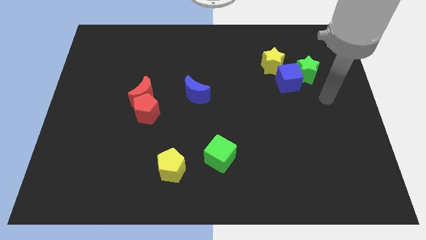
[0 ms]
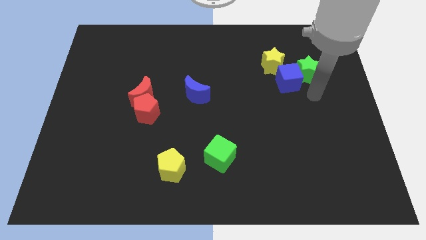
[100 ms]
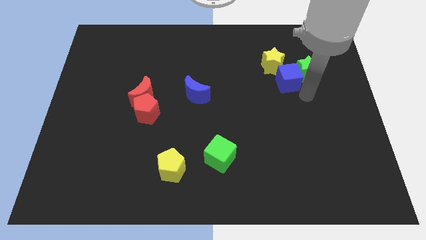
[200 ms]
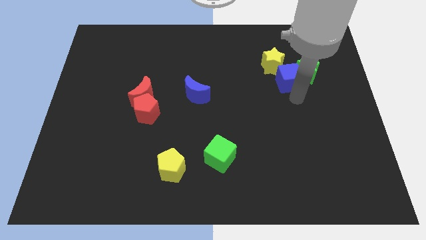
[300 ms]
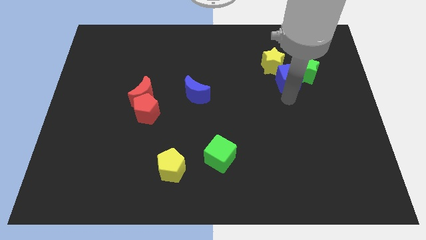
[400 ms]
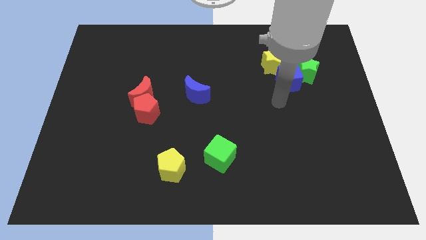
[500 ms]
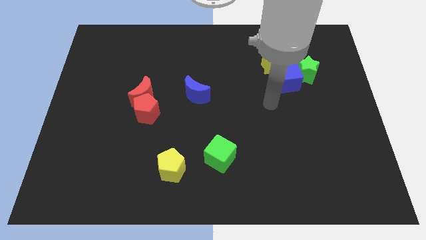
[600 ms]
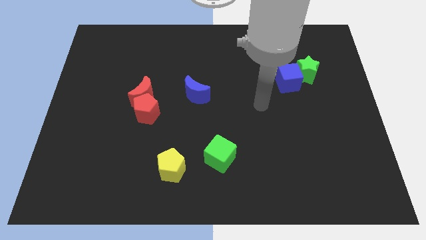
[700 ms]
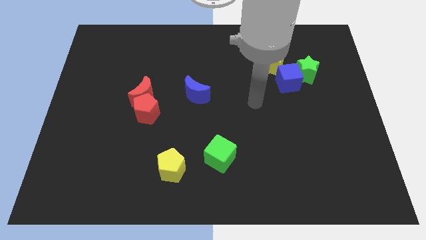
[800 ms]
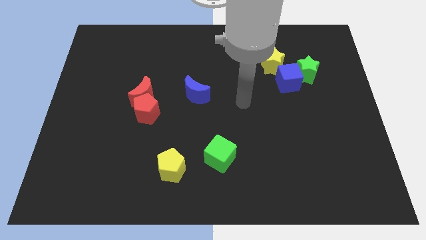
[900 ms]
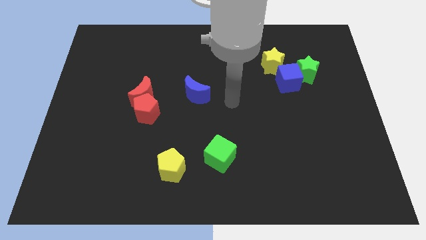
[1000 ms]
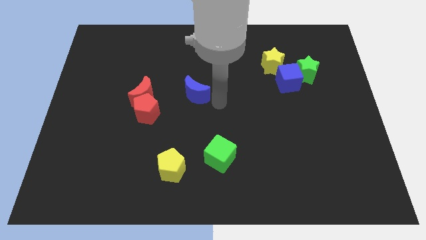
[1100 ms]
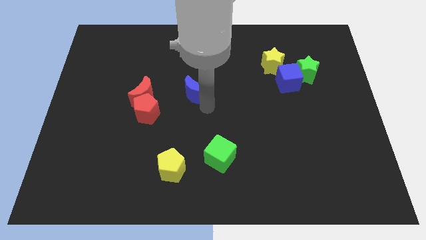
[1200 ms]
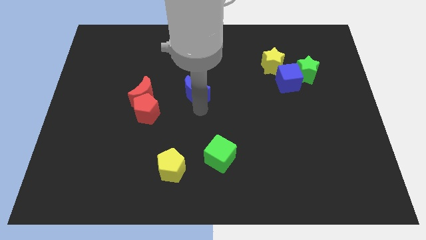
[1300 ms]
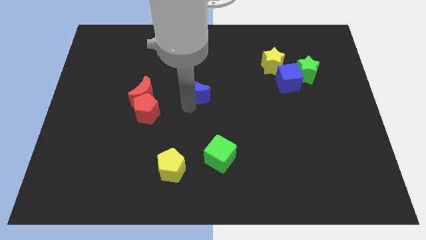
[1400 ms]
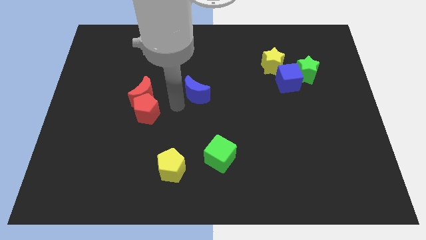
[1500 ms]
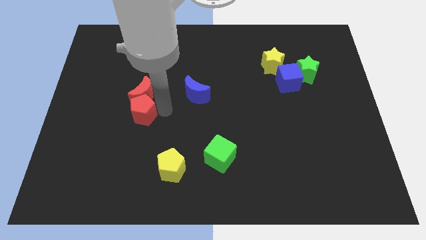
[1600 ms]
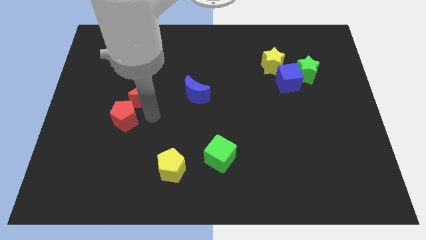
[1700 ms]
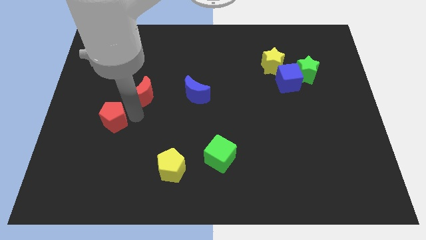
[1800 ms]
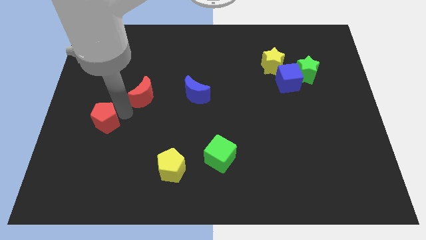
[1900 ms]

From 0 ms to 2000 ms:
move the red moon away from the red pentagon

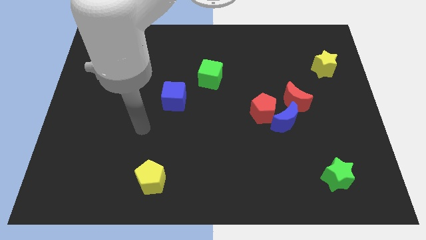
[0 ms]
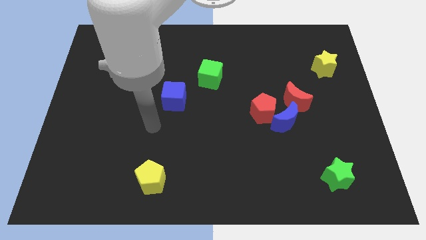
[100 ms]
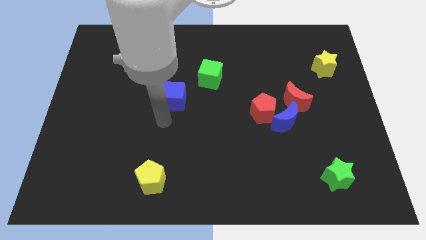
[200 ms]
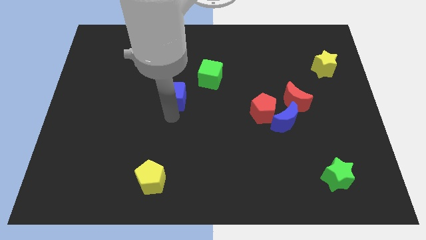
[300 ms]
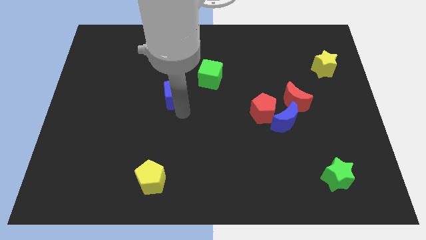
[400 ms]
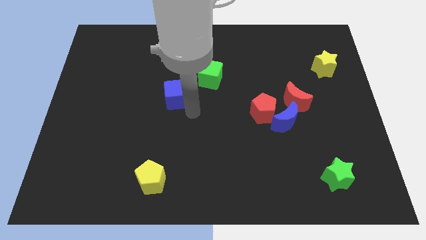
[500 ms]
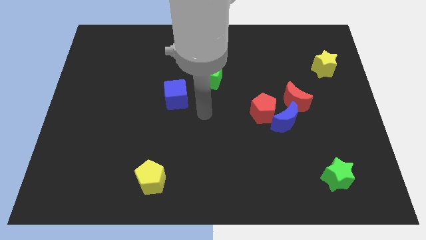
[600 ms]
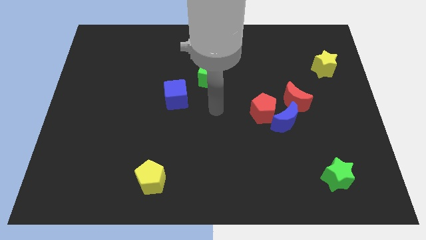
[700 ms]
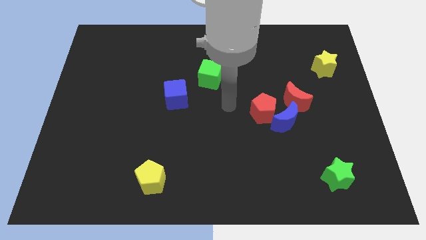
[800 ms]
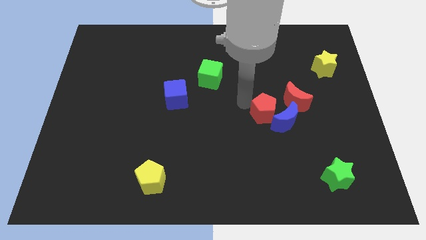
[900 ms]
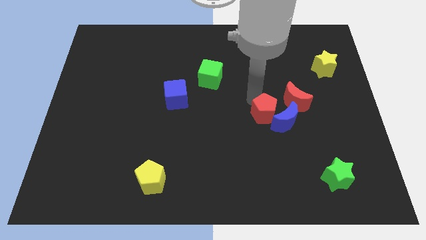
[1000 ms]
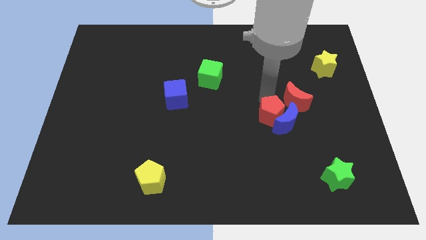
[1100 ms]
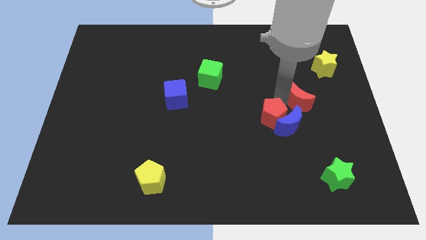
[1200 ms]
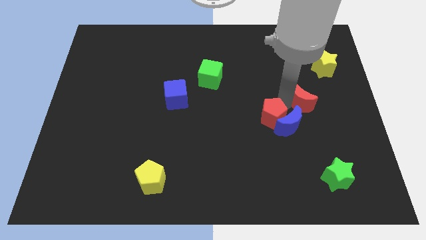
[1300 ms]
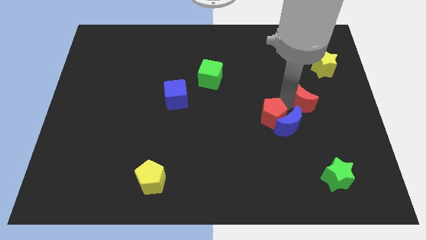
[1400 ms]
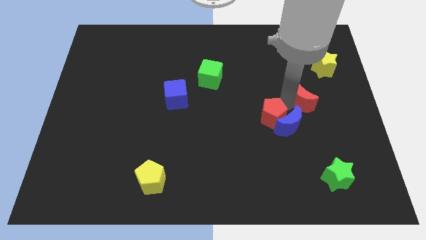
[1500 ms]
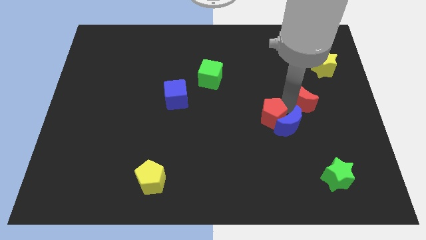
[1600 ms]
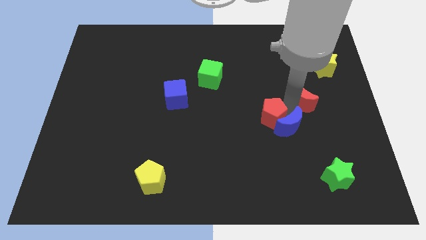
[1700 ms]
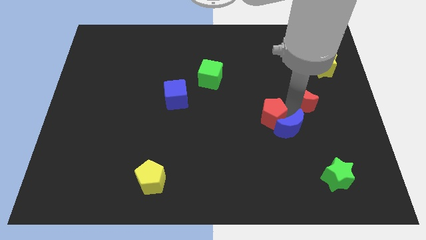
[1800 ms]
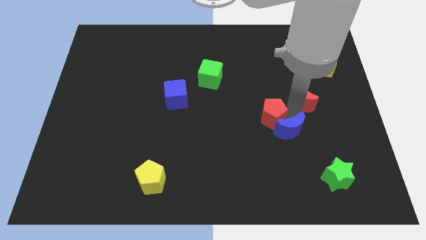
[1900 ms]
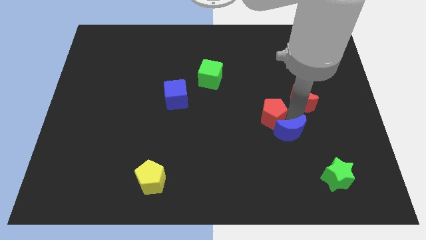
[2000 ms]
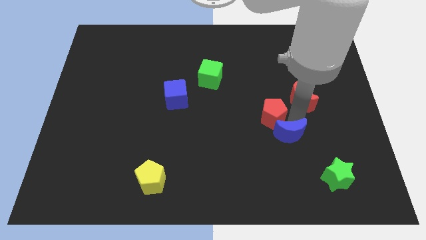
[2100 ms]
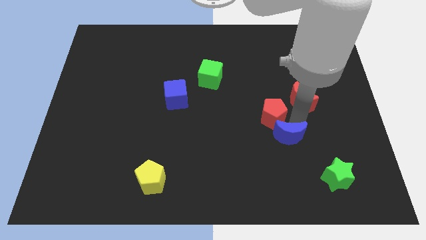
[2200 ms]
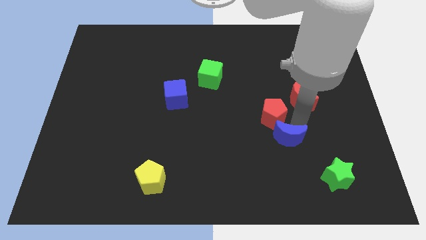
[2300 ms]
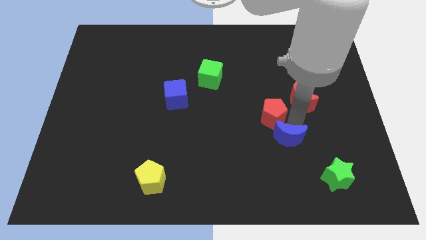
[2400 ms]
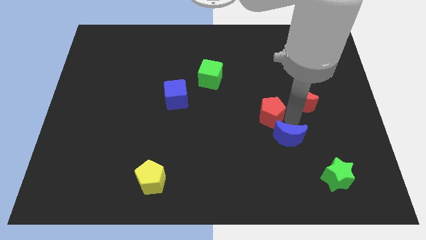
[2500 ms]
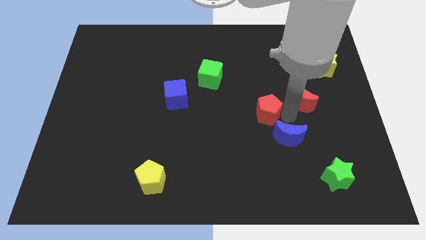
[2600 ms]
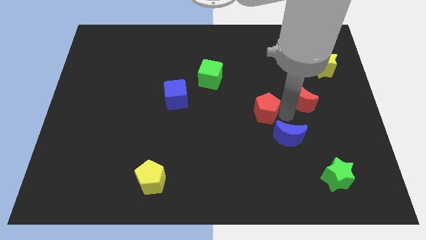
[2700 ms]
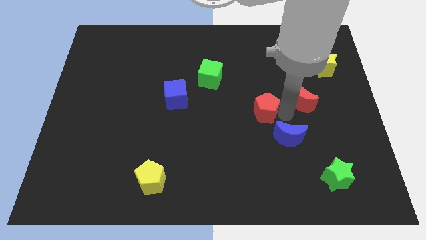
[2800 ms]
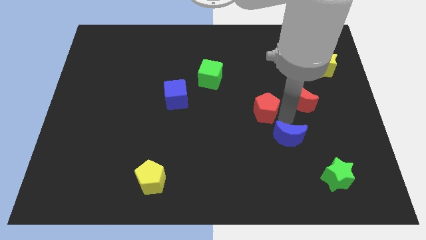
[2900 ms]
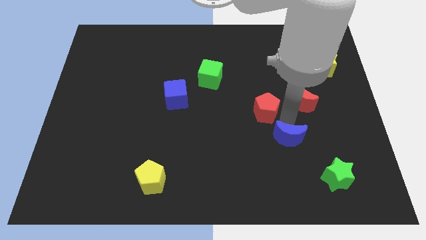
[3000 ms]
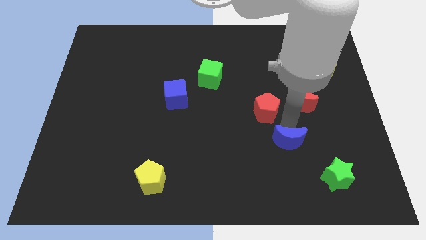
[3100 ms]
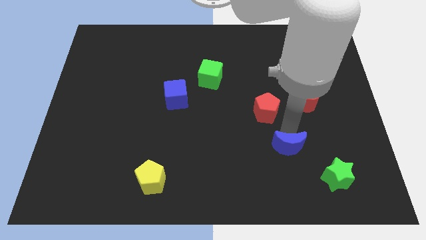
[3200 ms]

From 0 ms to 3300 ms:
pull the blue moon apart from the red pentagon and red moon

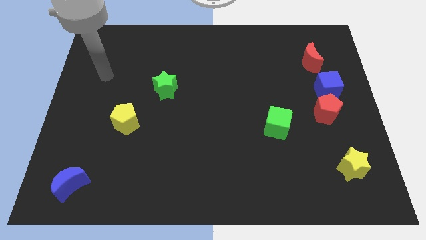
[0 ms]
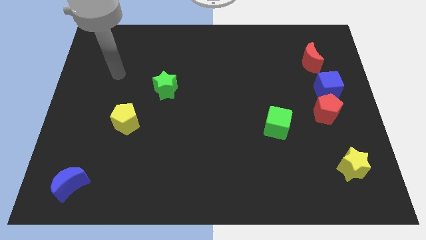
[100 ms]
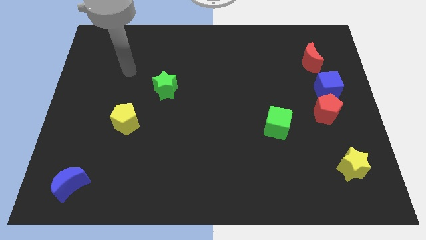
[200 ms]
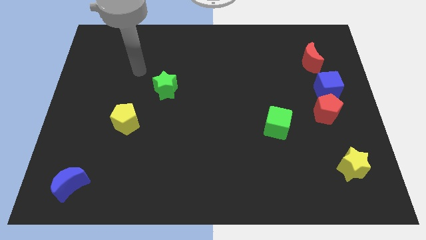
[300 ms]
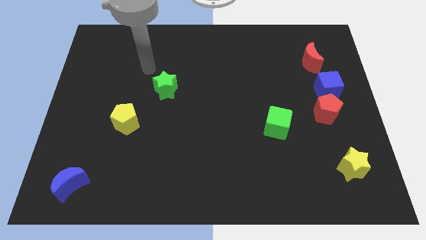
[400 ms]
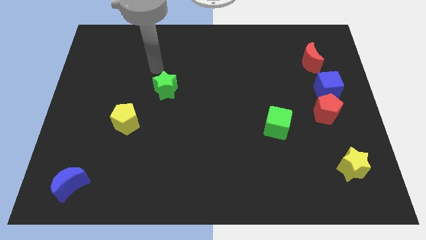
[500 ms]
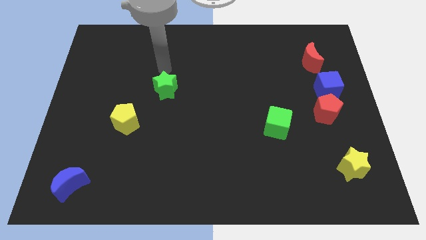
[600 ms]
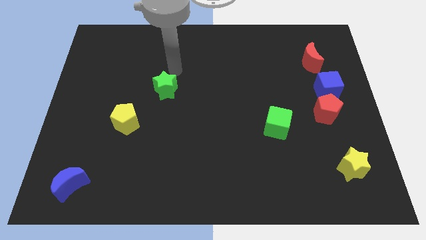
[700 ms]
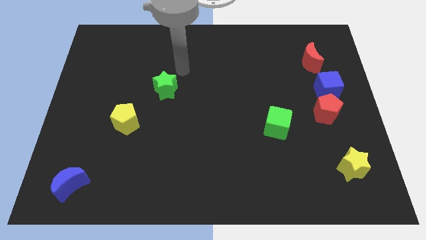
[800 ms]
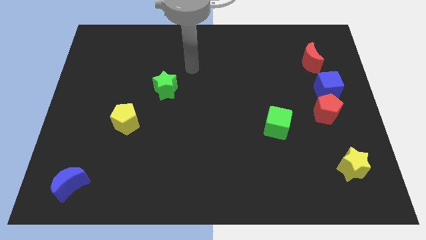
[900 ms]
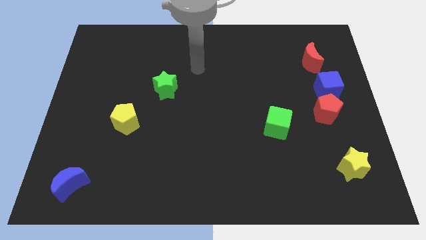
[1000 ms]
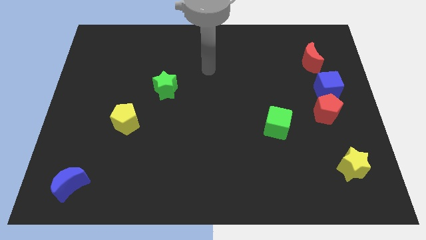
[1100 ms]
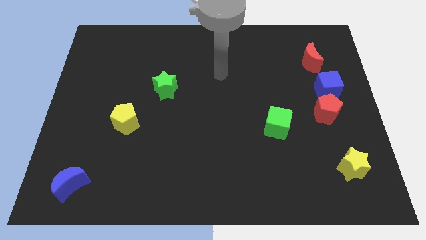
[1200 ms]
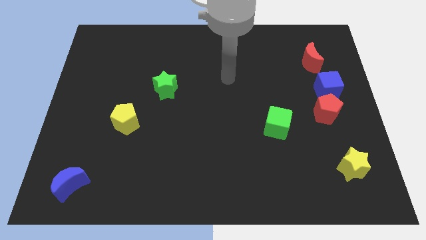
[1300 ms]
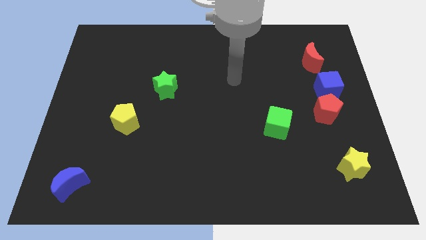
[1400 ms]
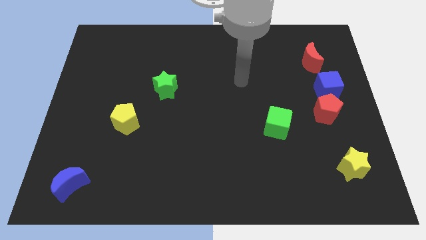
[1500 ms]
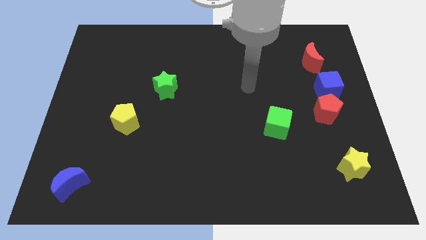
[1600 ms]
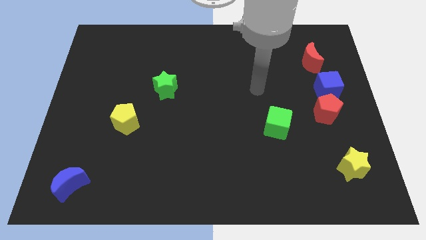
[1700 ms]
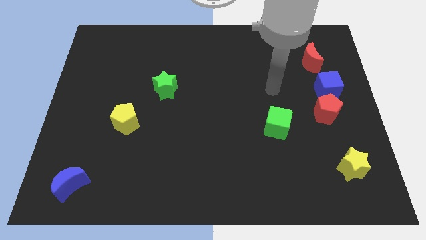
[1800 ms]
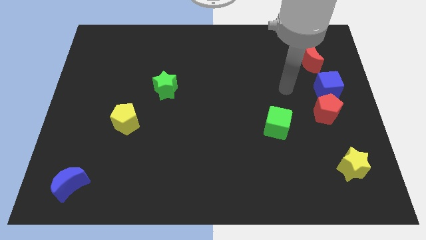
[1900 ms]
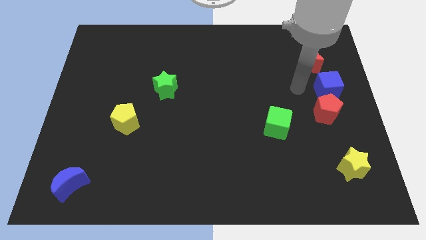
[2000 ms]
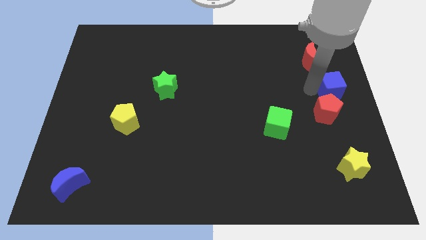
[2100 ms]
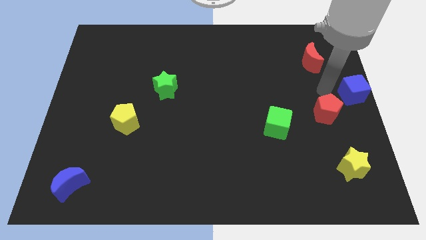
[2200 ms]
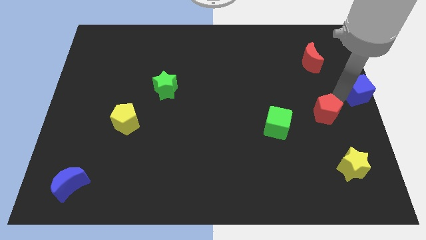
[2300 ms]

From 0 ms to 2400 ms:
pull the red pentagon apart from the blue cube

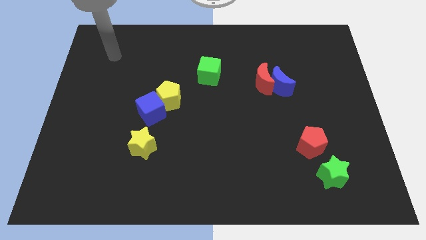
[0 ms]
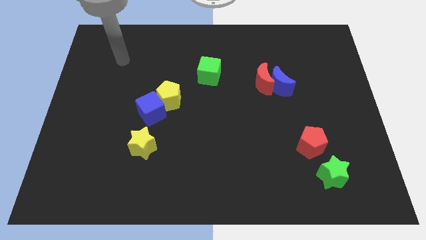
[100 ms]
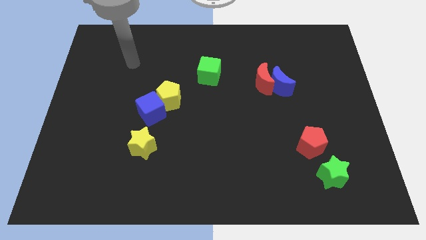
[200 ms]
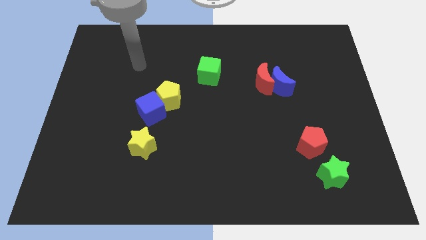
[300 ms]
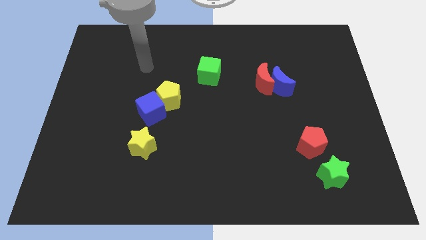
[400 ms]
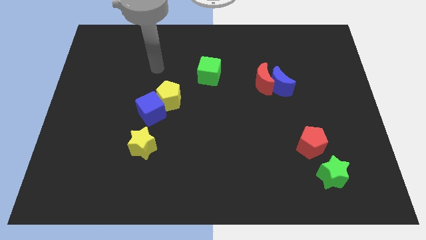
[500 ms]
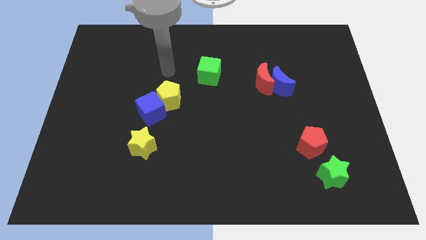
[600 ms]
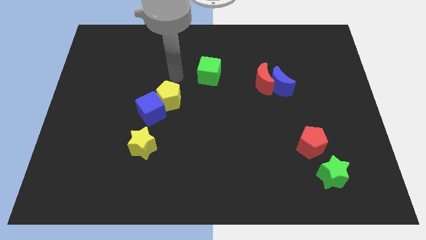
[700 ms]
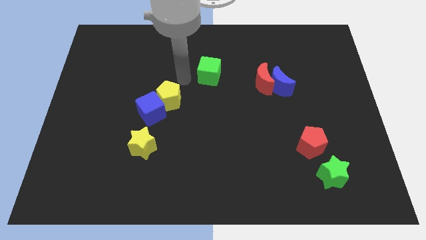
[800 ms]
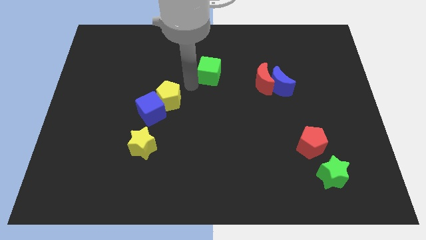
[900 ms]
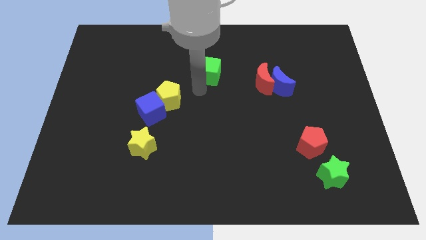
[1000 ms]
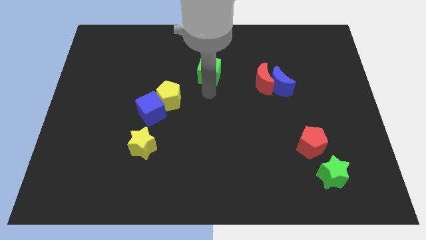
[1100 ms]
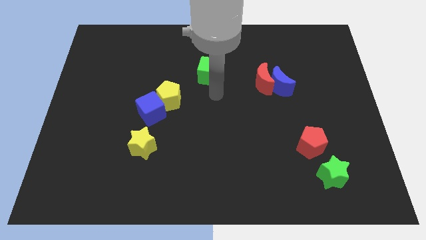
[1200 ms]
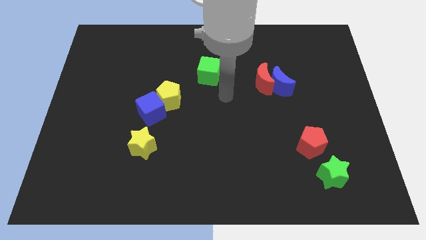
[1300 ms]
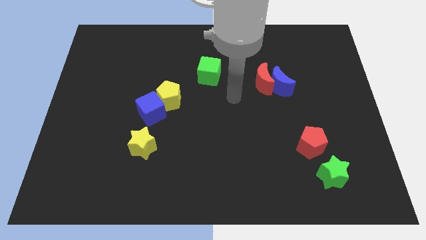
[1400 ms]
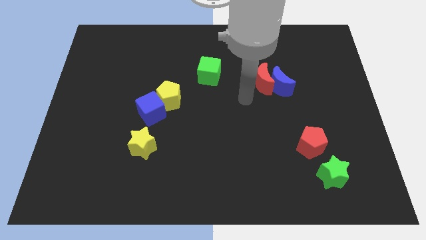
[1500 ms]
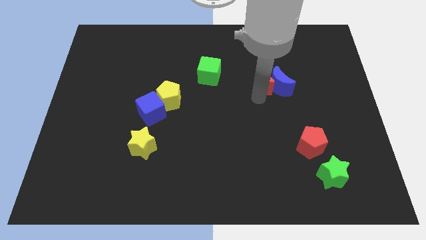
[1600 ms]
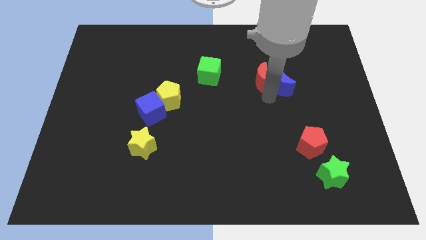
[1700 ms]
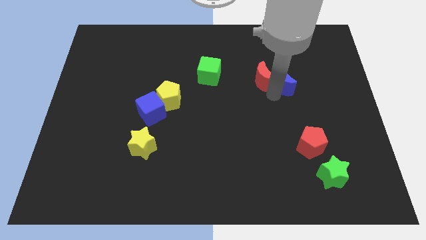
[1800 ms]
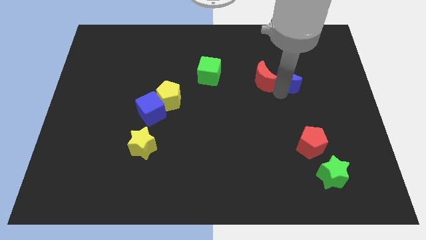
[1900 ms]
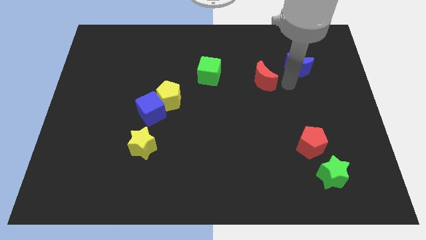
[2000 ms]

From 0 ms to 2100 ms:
separate the red moon from the blue moon
